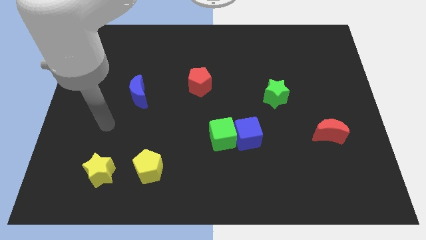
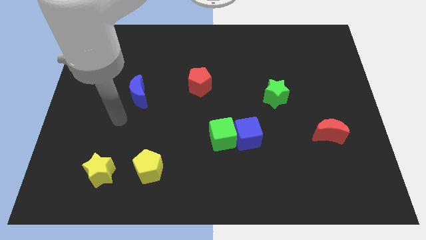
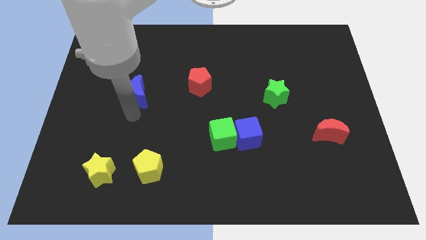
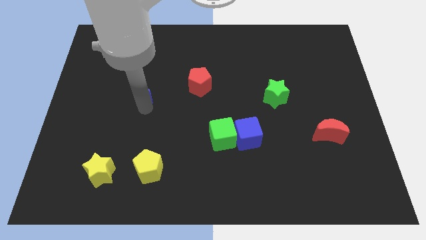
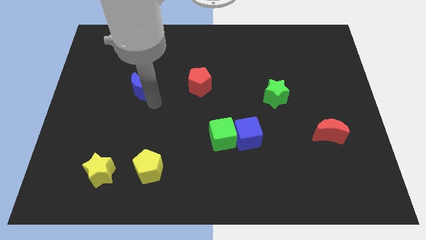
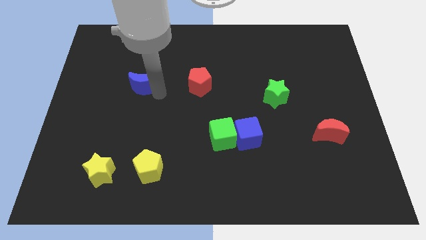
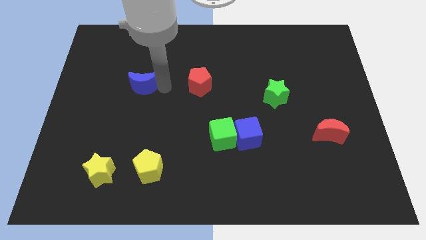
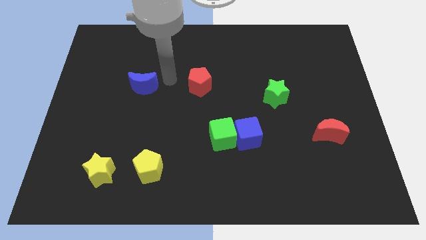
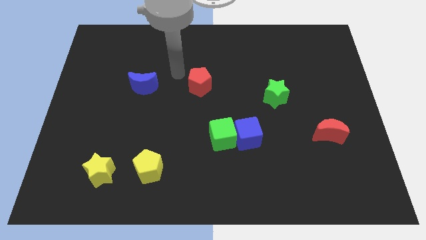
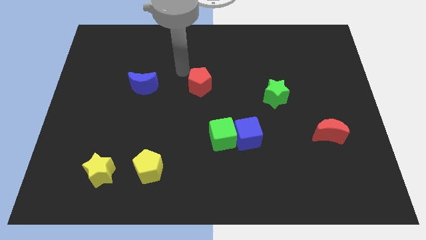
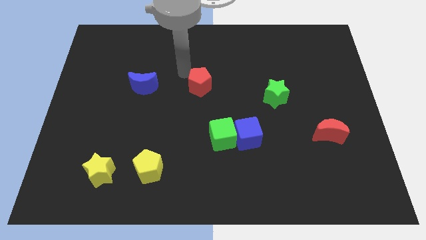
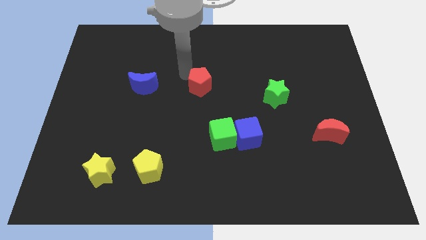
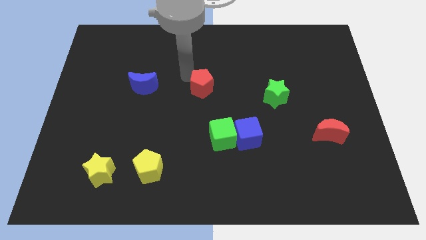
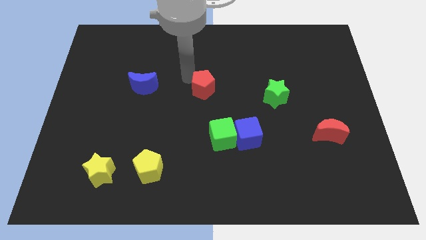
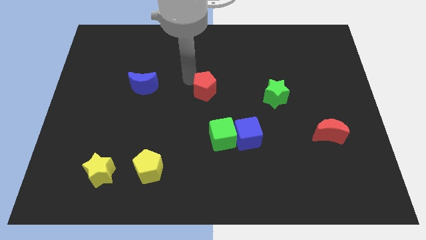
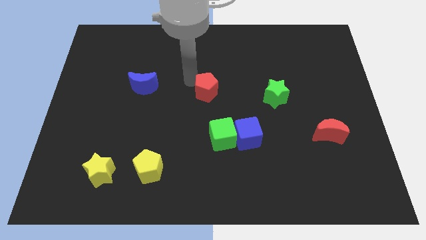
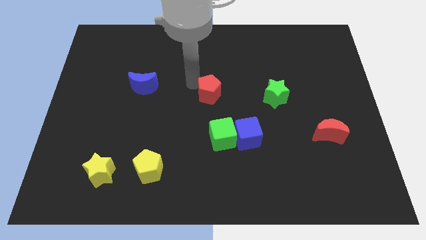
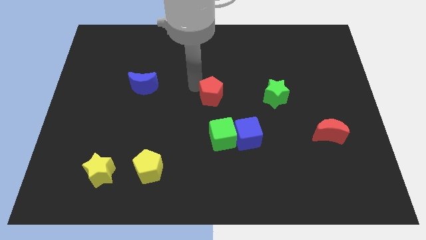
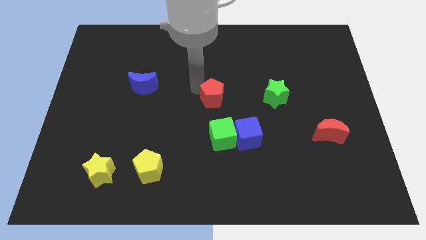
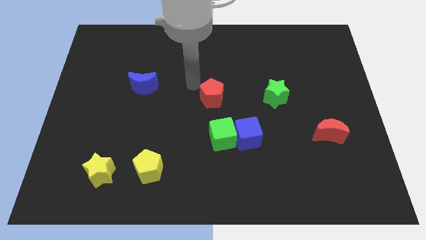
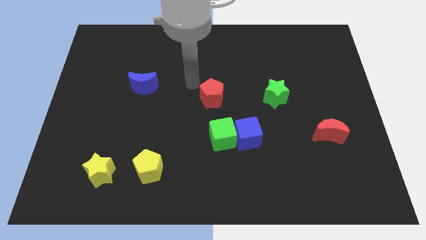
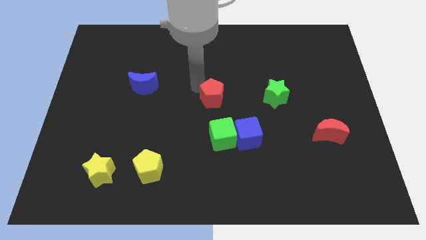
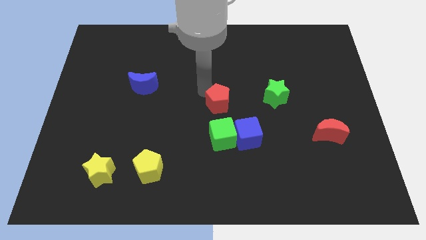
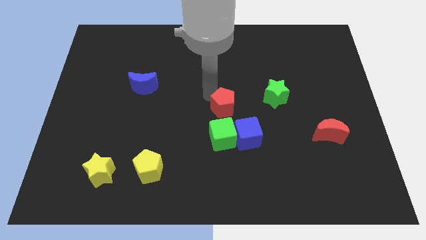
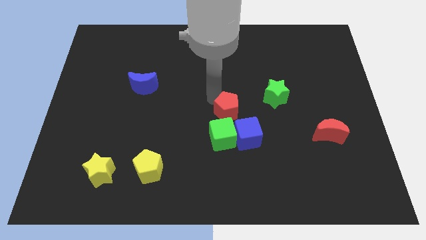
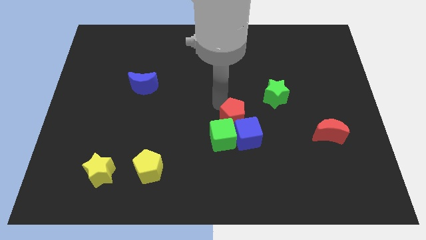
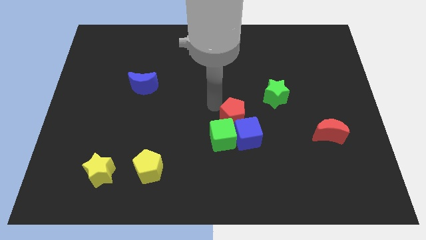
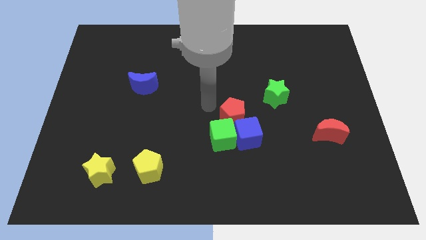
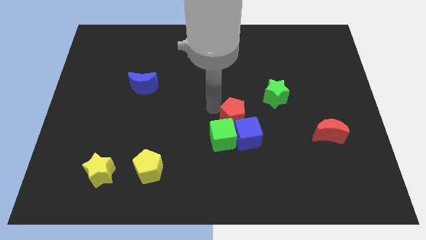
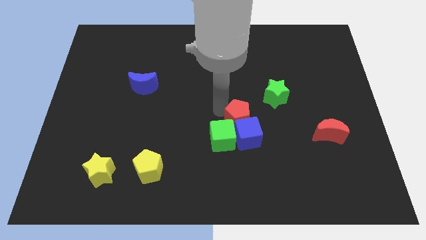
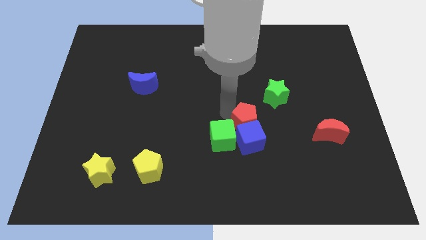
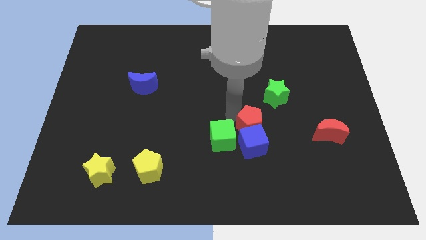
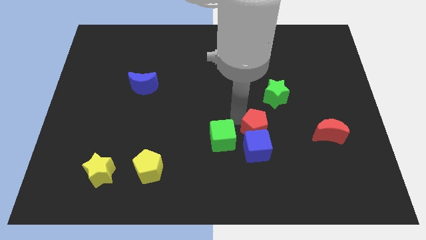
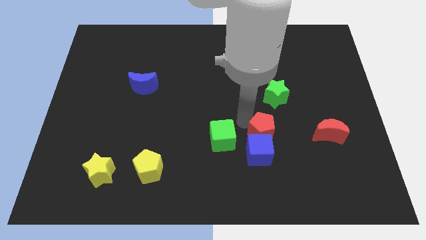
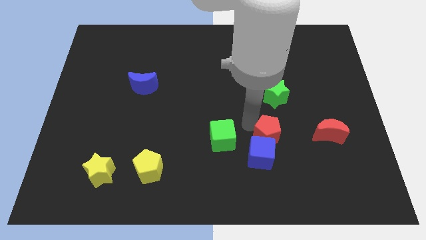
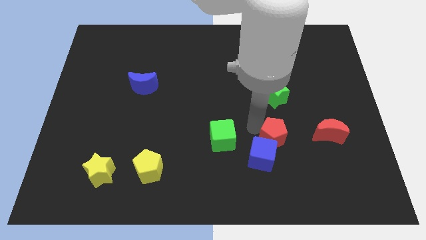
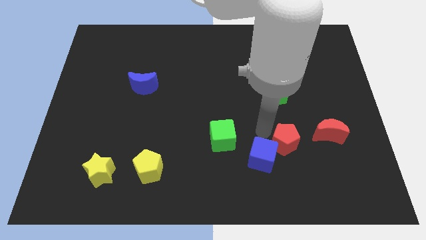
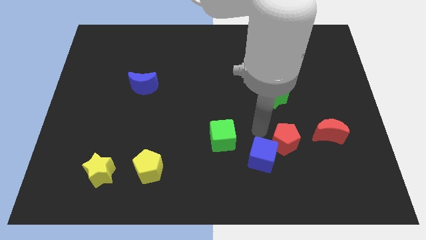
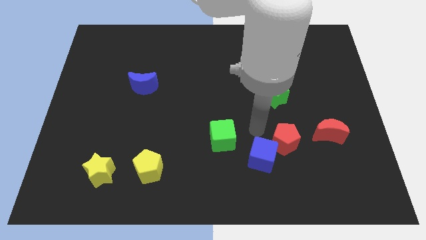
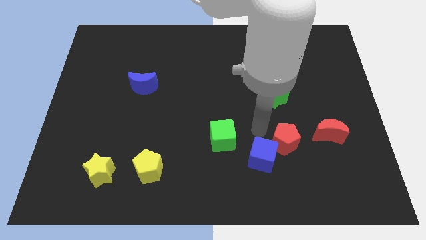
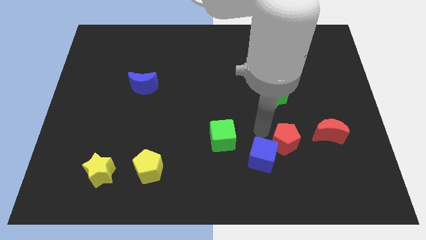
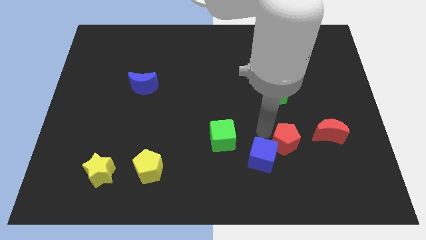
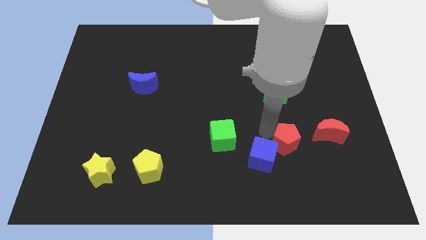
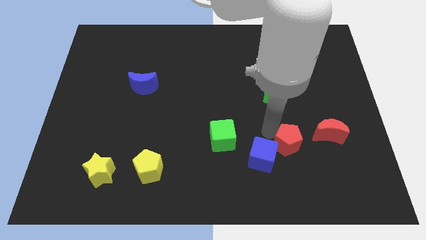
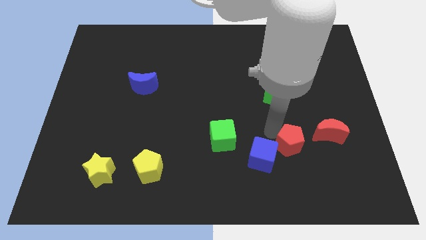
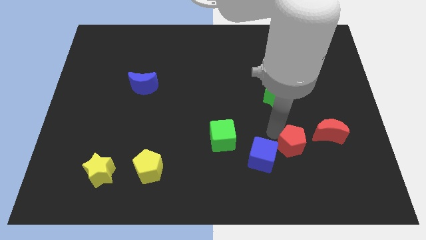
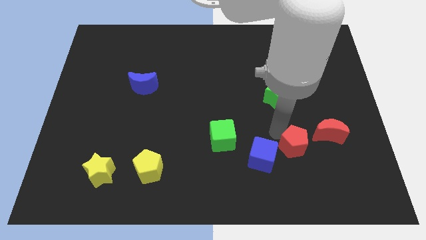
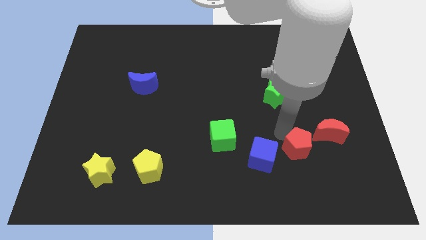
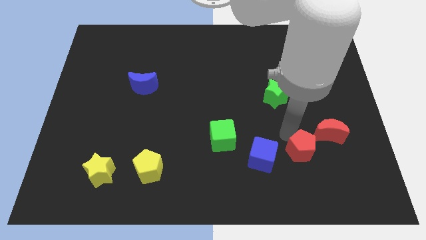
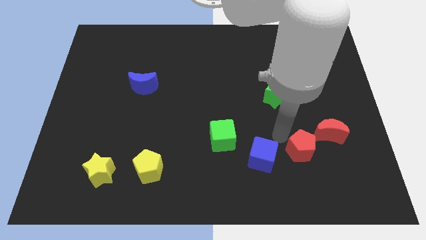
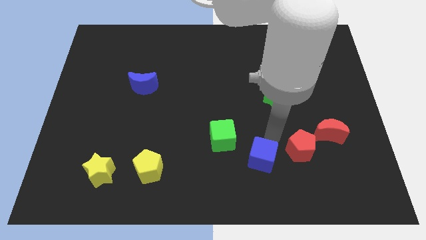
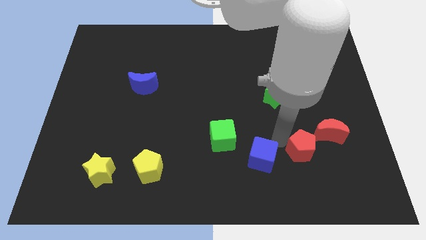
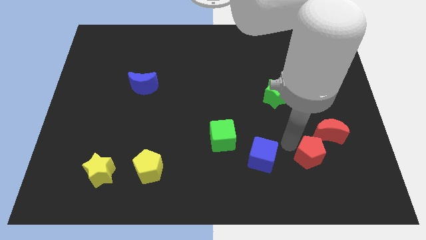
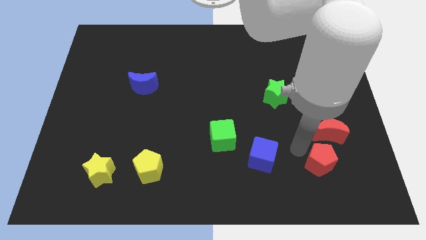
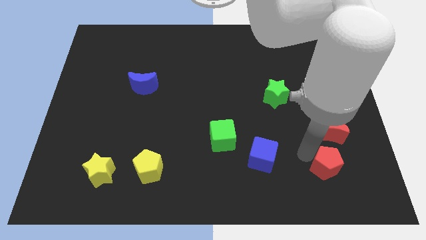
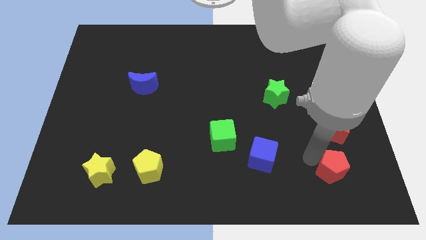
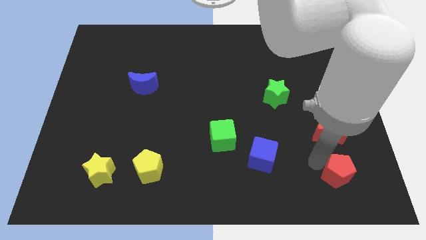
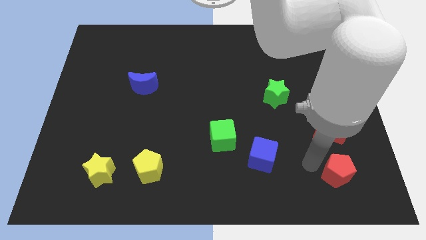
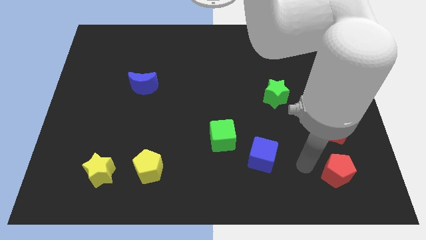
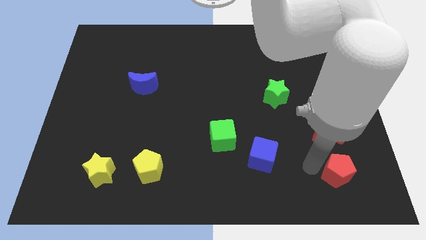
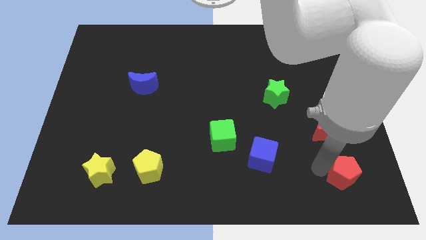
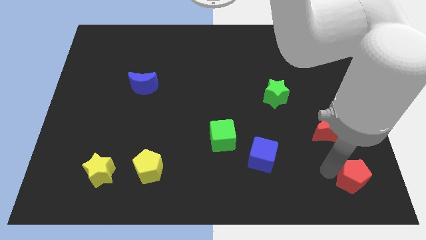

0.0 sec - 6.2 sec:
move the red pentagon to the bottom right

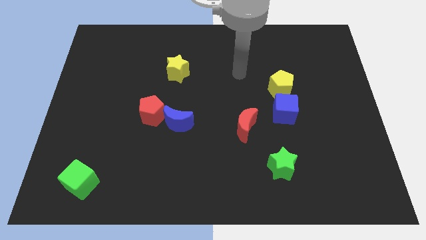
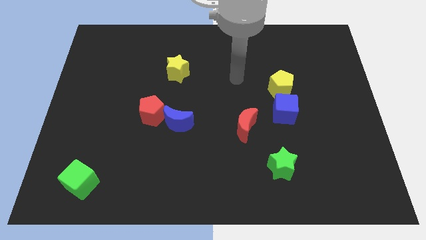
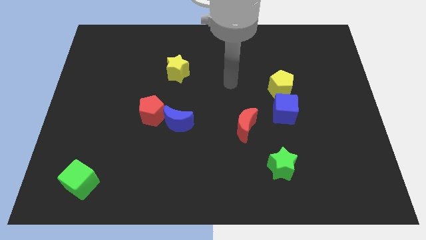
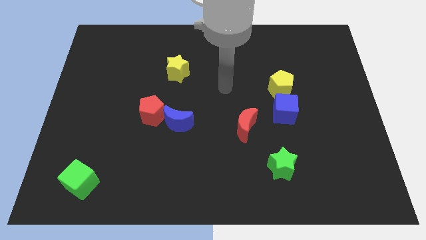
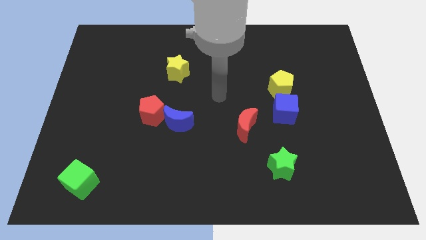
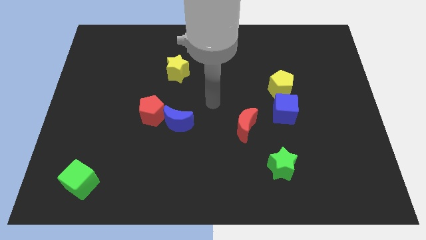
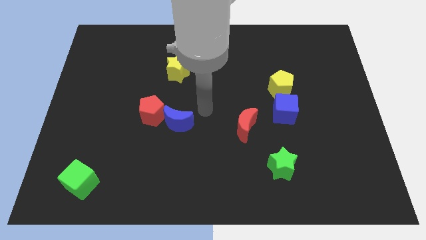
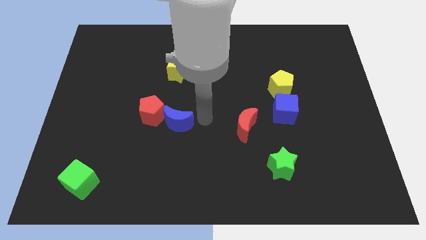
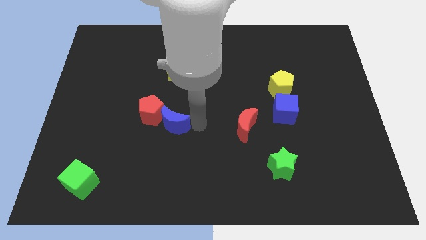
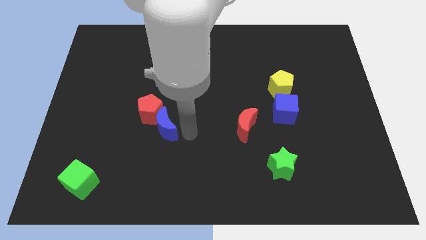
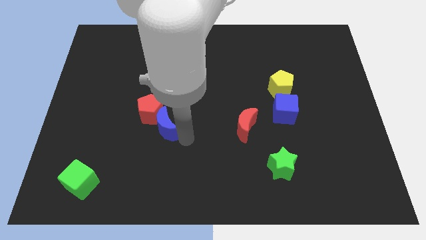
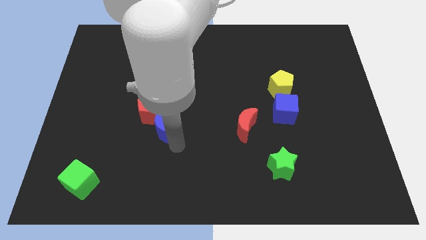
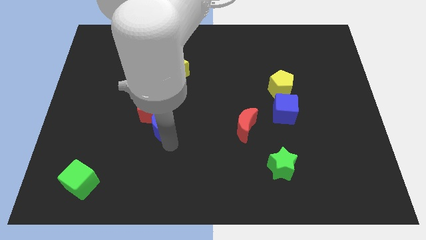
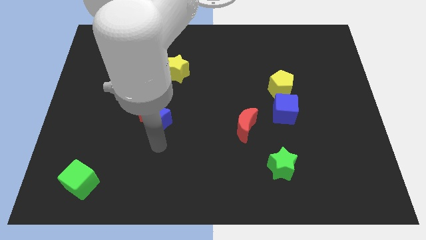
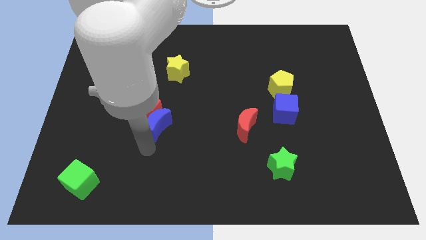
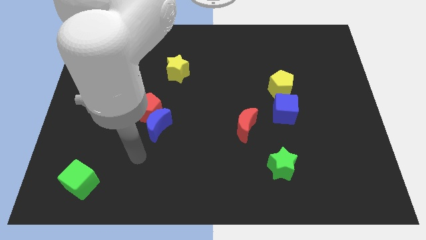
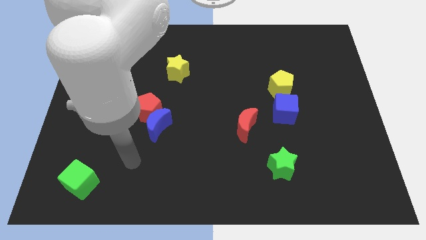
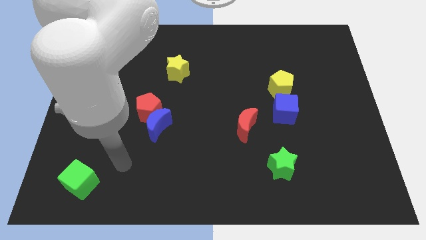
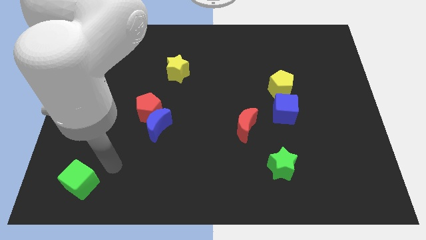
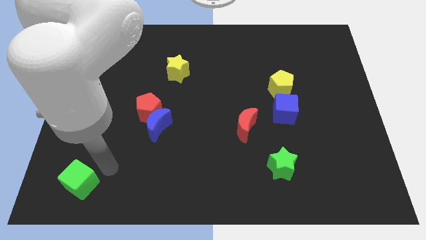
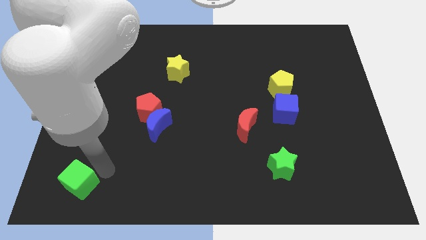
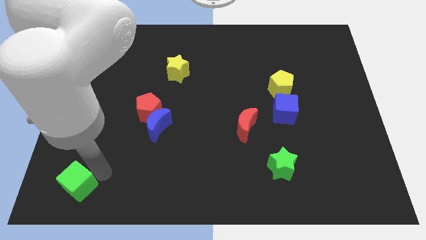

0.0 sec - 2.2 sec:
move the green cube to the bottom left corner
